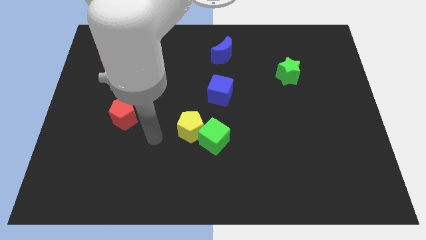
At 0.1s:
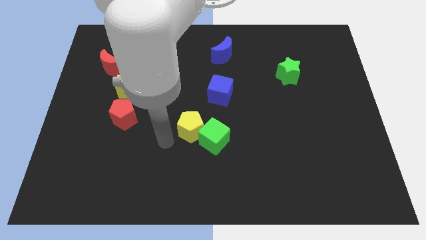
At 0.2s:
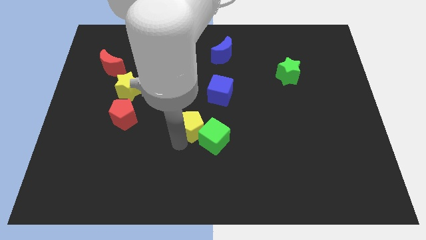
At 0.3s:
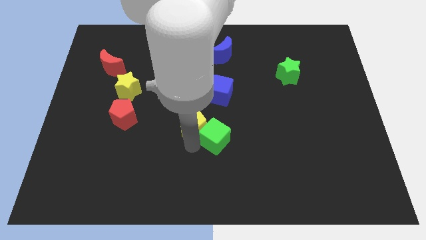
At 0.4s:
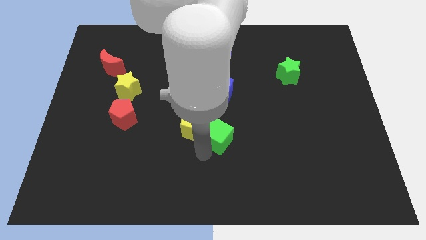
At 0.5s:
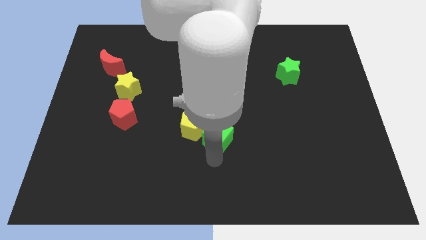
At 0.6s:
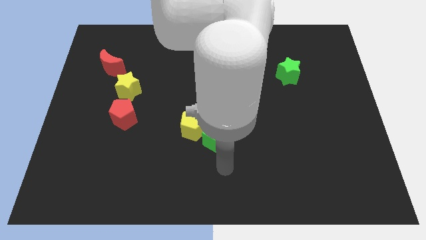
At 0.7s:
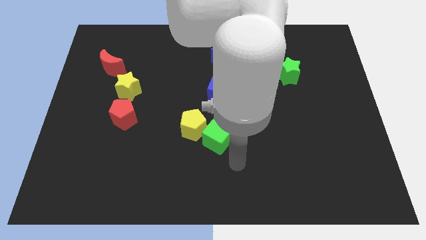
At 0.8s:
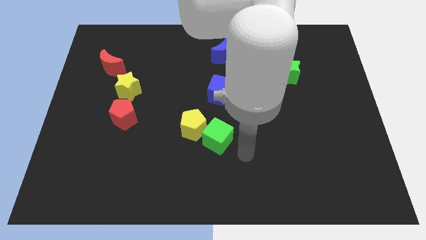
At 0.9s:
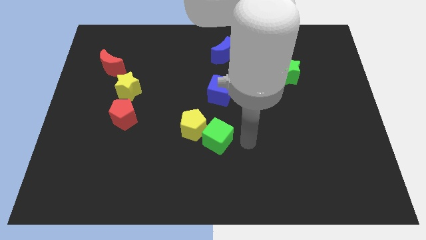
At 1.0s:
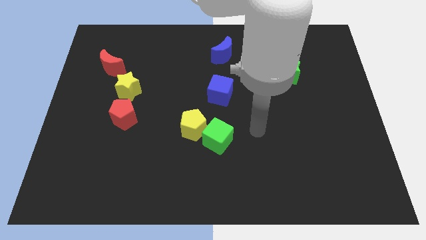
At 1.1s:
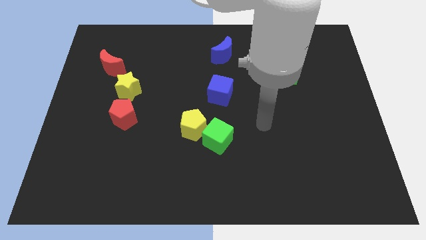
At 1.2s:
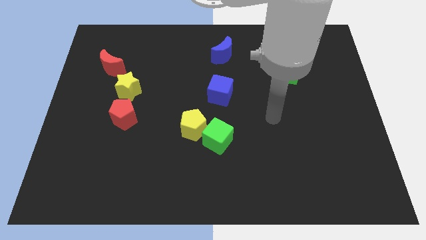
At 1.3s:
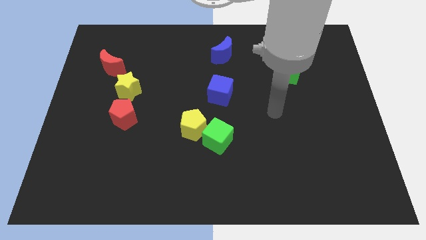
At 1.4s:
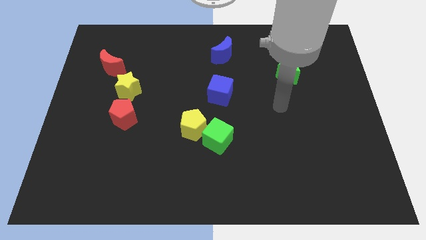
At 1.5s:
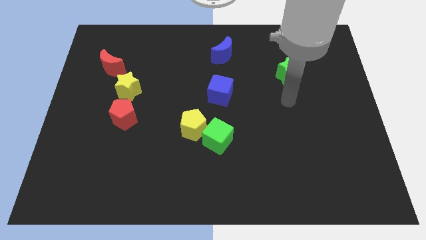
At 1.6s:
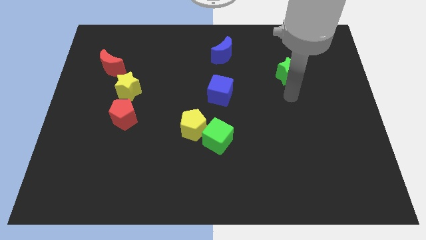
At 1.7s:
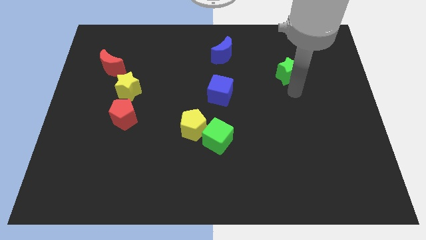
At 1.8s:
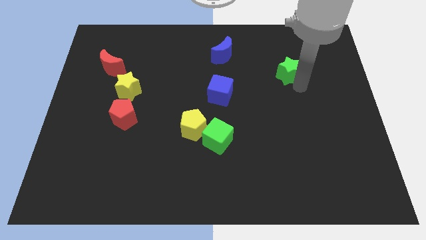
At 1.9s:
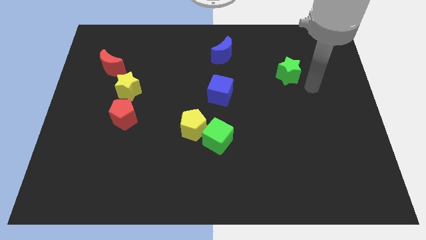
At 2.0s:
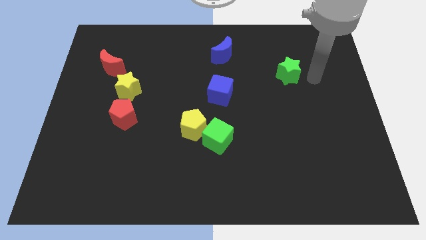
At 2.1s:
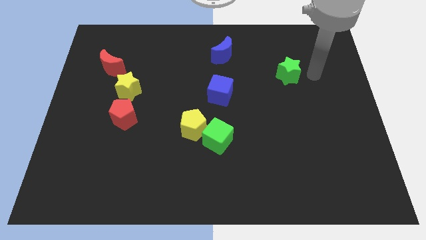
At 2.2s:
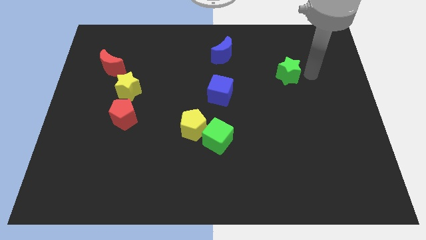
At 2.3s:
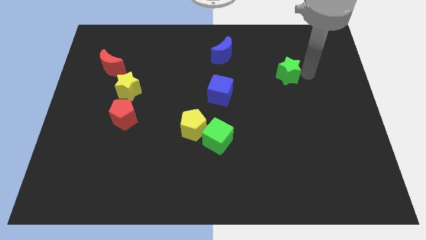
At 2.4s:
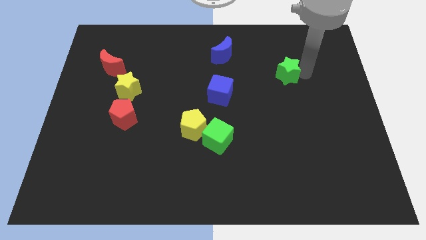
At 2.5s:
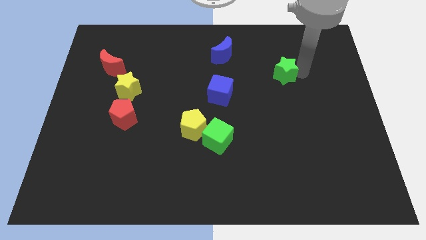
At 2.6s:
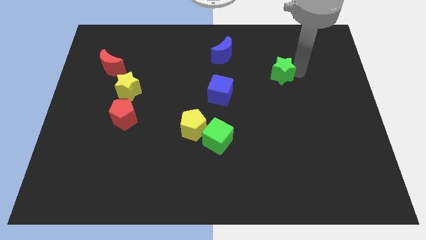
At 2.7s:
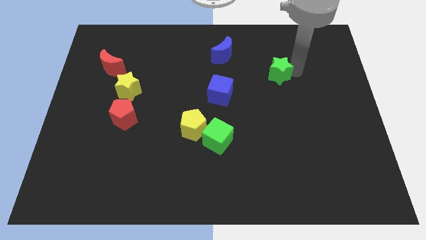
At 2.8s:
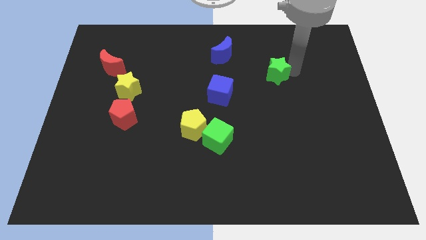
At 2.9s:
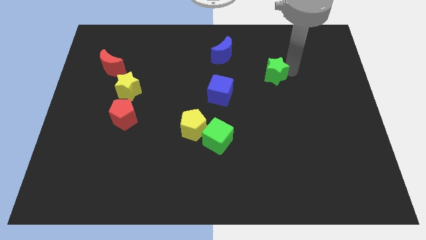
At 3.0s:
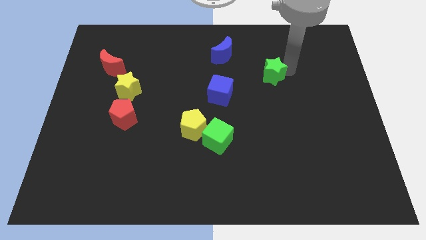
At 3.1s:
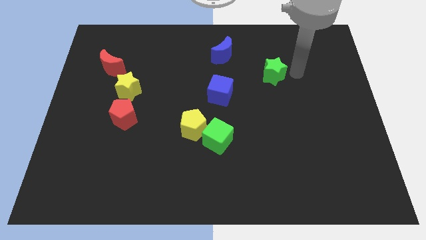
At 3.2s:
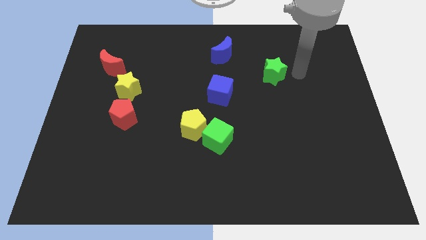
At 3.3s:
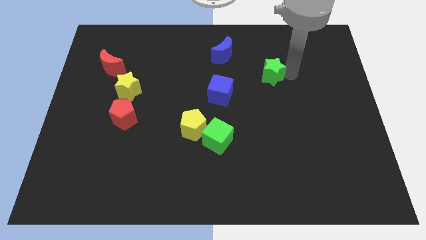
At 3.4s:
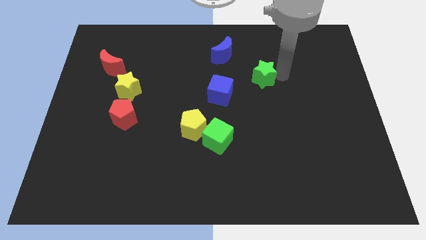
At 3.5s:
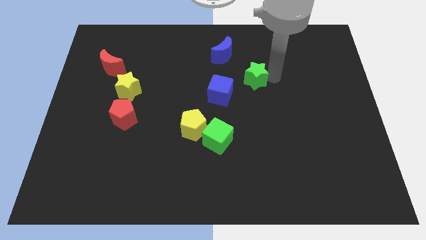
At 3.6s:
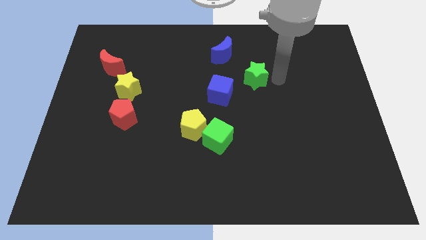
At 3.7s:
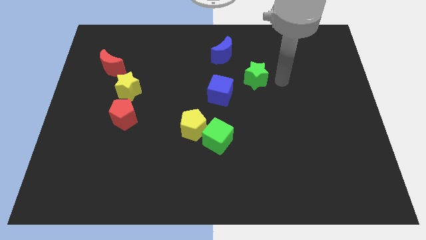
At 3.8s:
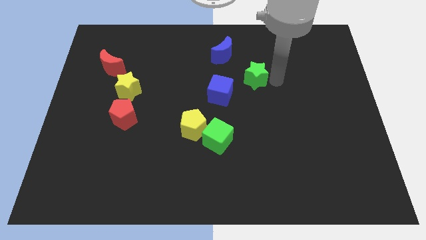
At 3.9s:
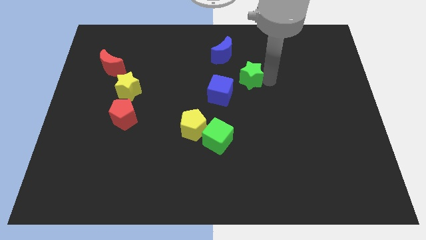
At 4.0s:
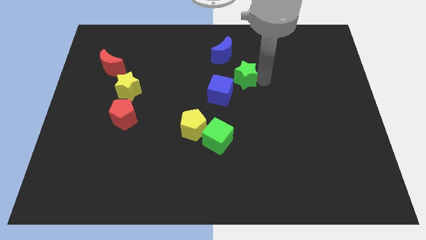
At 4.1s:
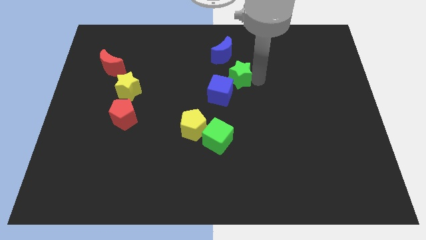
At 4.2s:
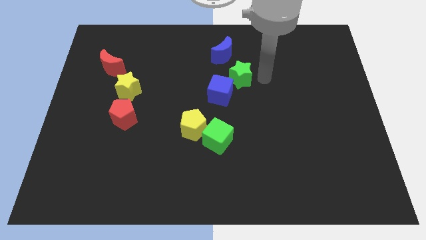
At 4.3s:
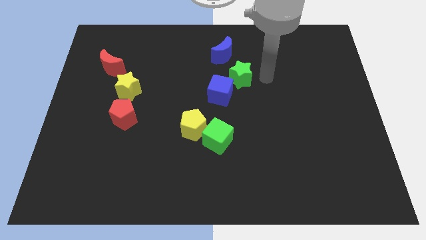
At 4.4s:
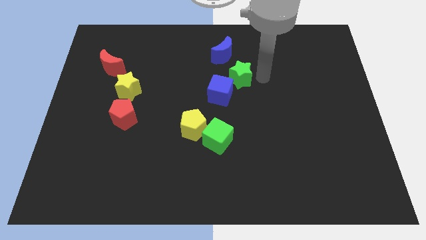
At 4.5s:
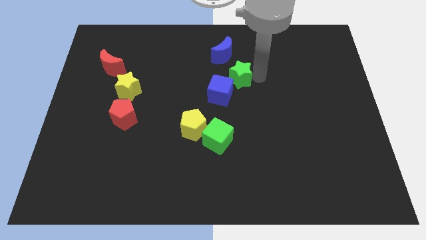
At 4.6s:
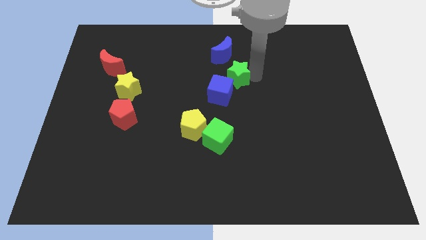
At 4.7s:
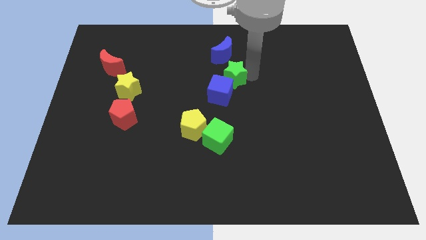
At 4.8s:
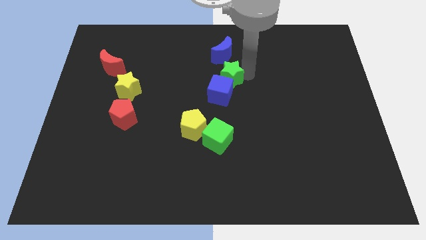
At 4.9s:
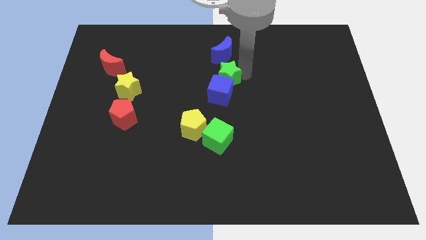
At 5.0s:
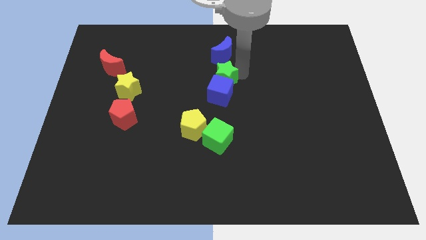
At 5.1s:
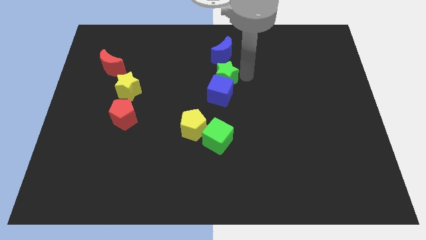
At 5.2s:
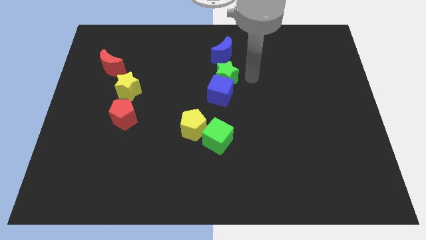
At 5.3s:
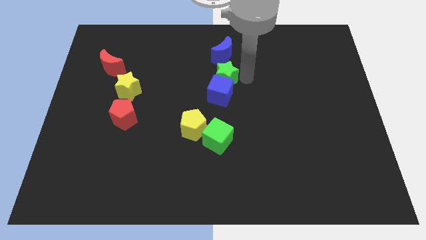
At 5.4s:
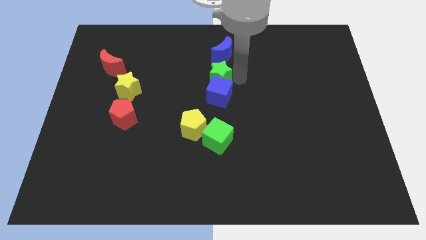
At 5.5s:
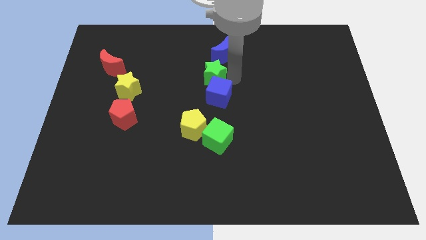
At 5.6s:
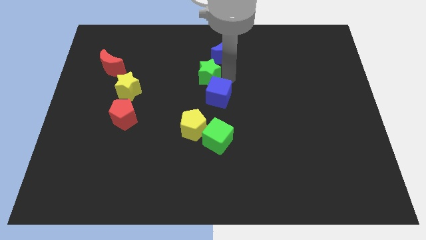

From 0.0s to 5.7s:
slide the green star left

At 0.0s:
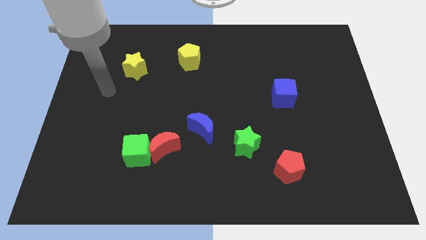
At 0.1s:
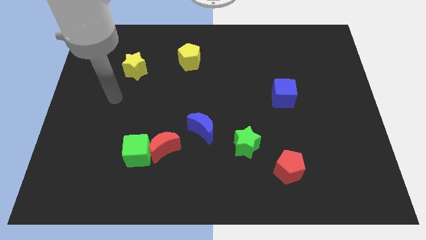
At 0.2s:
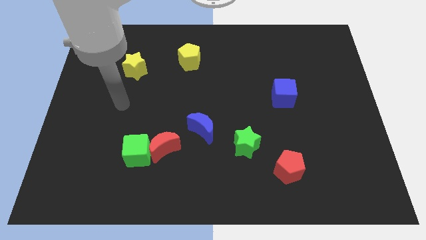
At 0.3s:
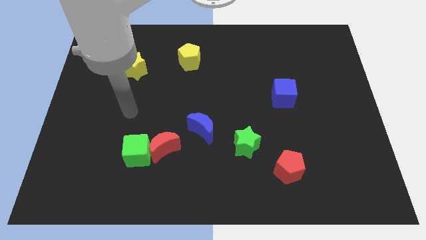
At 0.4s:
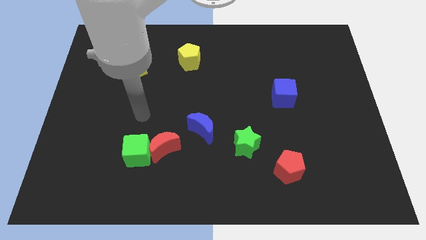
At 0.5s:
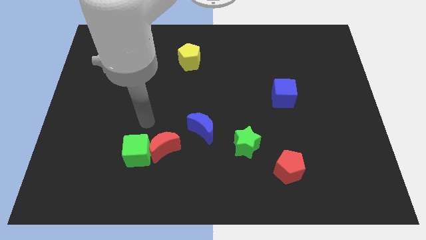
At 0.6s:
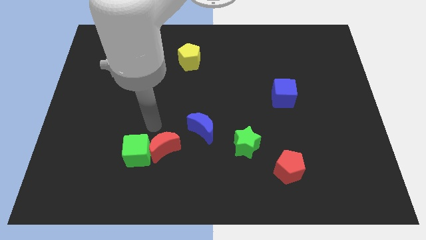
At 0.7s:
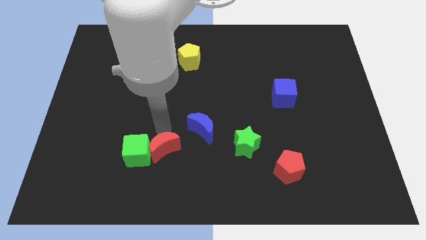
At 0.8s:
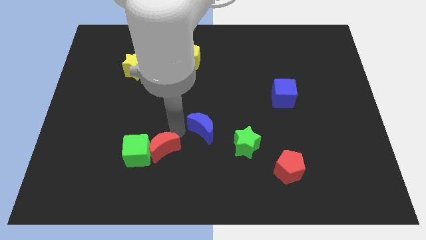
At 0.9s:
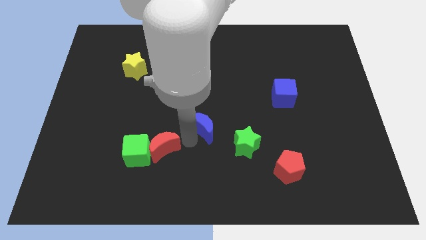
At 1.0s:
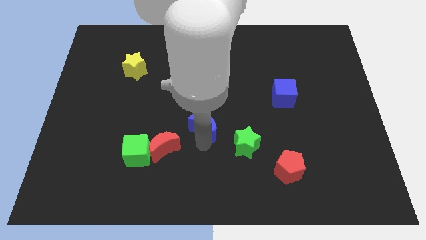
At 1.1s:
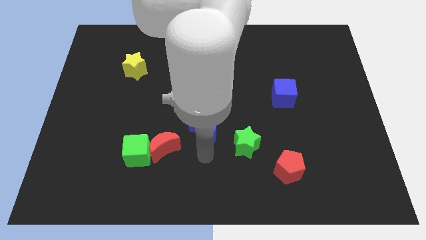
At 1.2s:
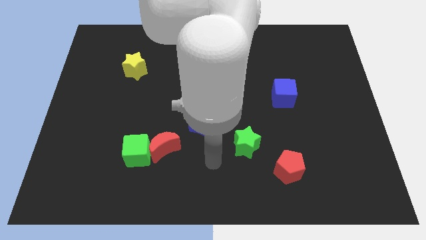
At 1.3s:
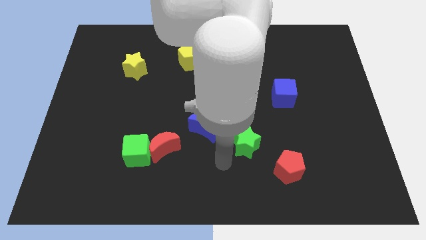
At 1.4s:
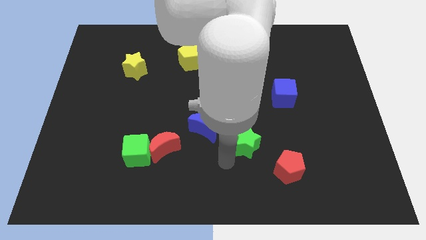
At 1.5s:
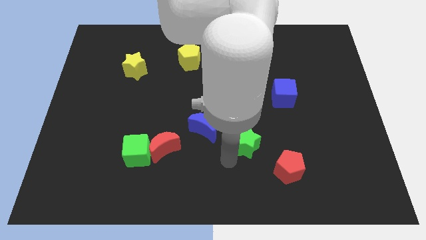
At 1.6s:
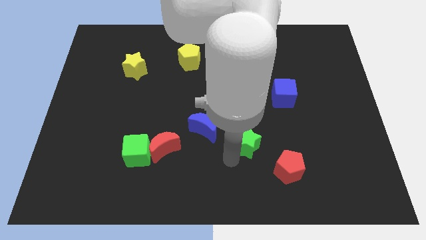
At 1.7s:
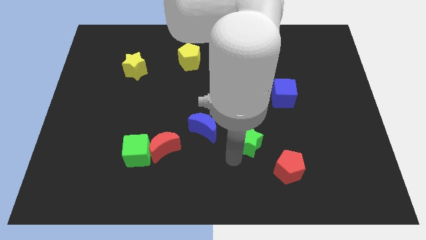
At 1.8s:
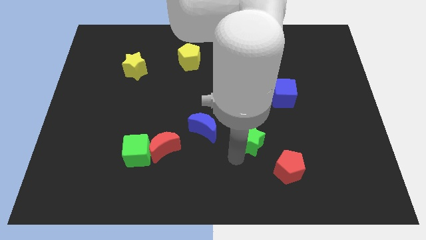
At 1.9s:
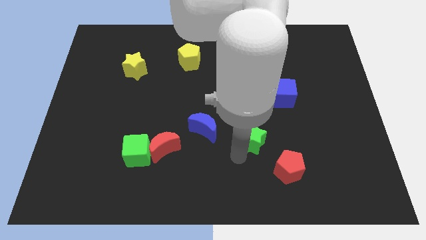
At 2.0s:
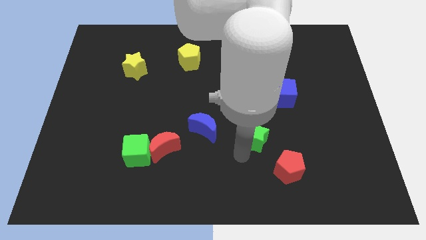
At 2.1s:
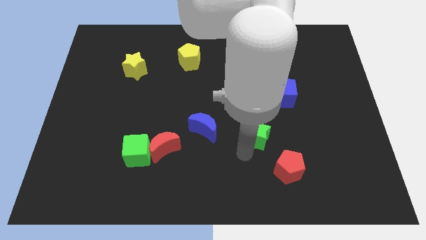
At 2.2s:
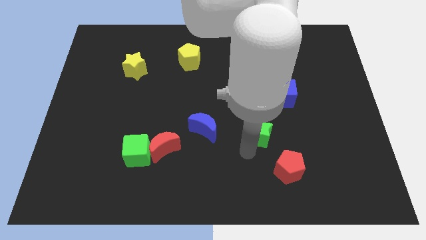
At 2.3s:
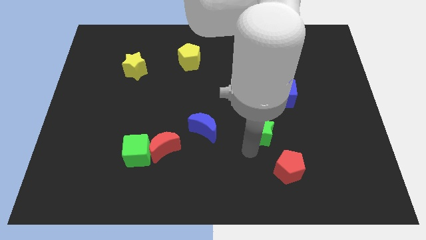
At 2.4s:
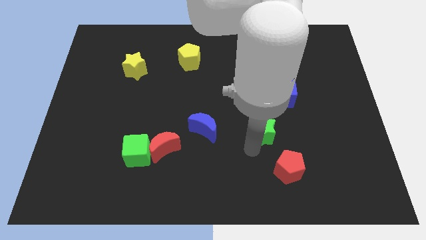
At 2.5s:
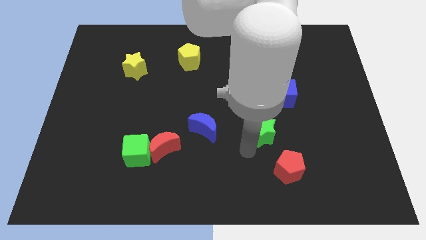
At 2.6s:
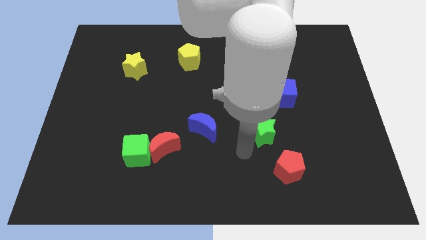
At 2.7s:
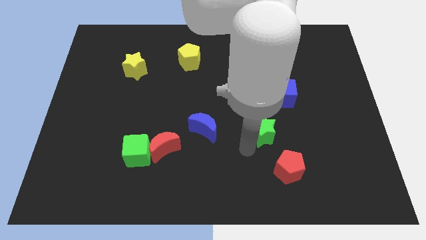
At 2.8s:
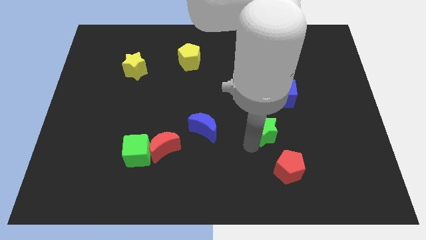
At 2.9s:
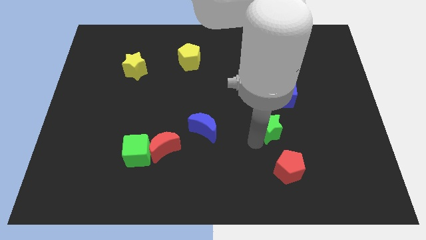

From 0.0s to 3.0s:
slide the green star a little upwards and then to the right
